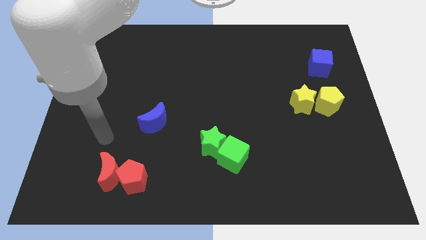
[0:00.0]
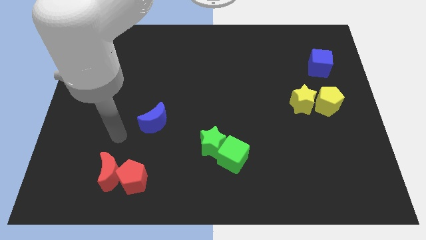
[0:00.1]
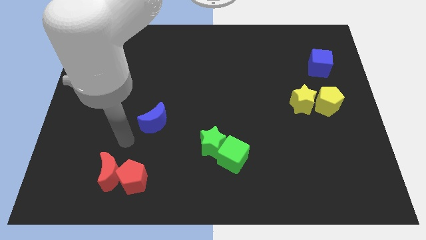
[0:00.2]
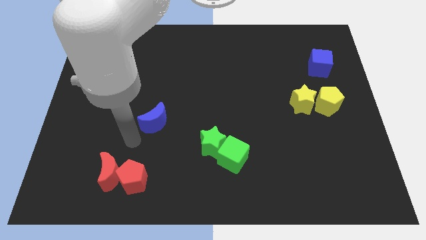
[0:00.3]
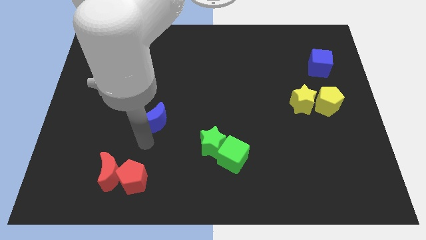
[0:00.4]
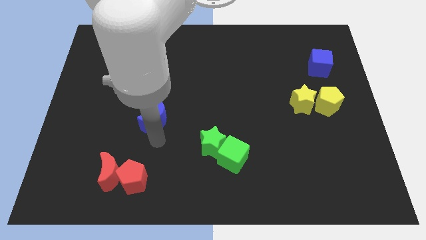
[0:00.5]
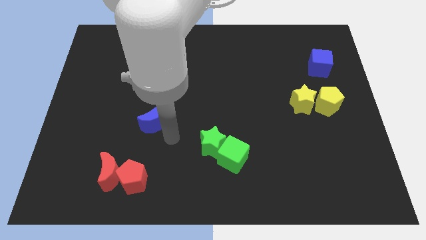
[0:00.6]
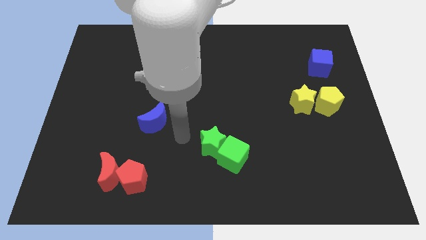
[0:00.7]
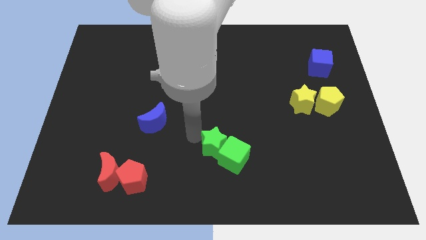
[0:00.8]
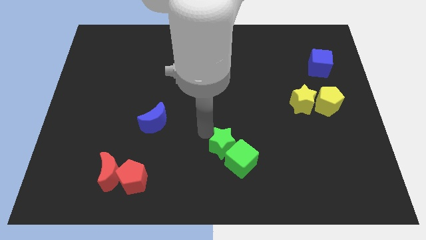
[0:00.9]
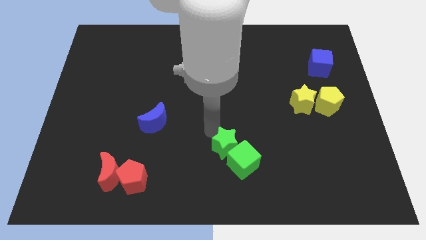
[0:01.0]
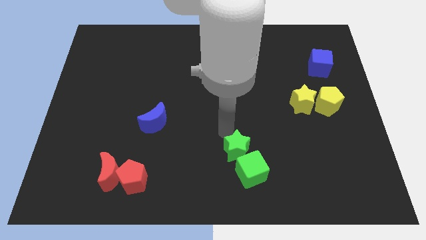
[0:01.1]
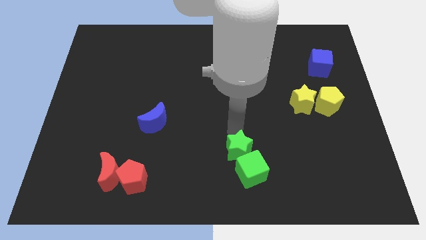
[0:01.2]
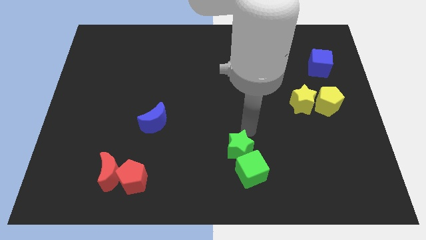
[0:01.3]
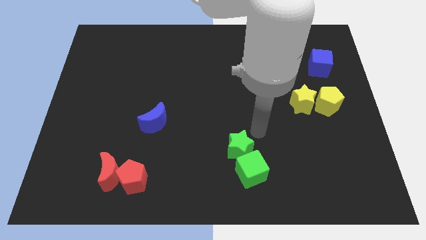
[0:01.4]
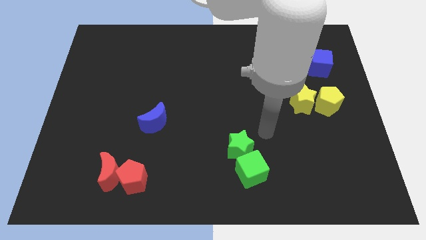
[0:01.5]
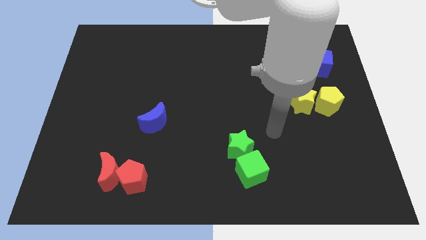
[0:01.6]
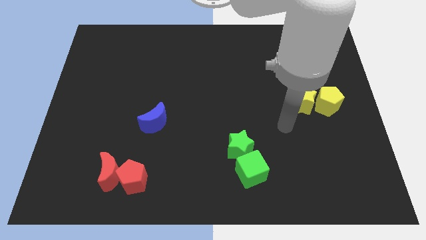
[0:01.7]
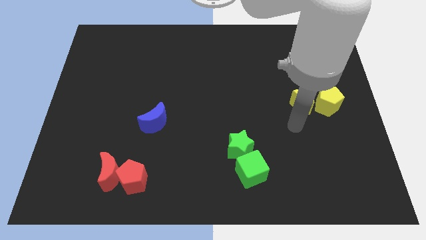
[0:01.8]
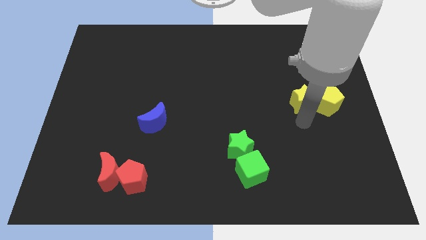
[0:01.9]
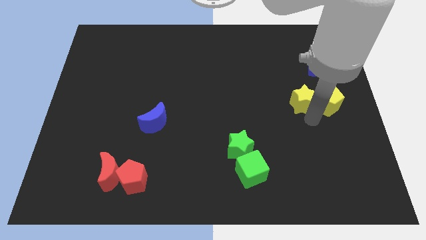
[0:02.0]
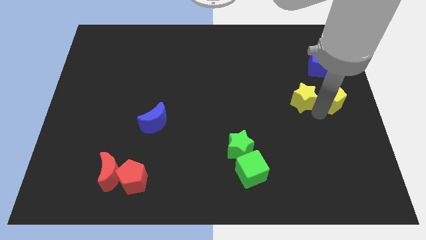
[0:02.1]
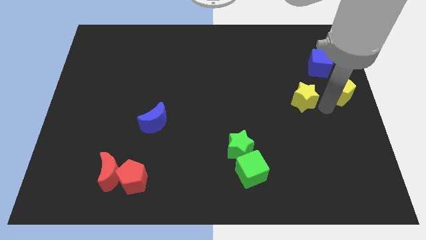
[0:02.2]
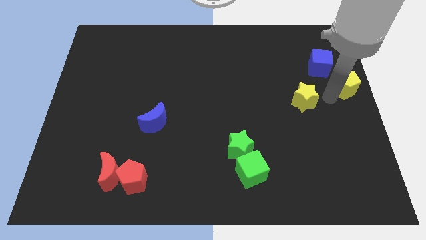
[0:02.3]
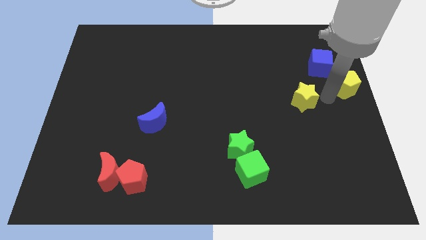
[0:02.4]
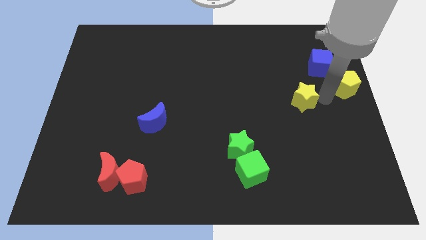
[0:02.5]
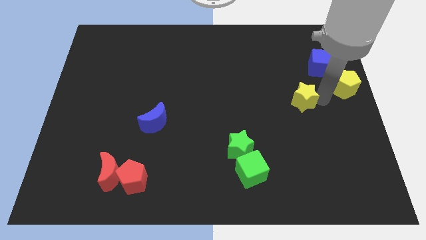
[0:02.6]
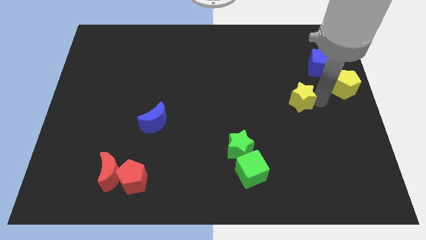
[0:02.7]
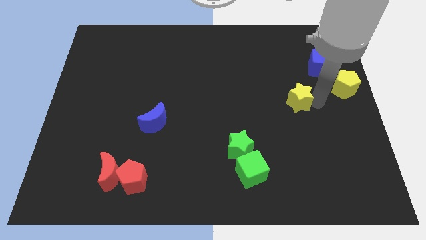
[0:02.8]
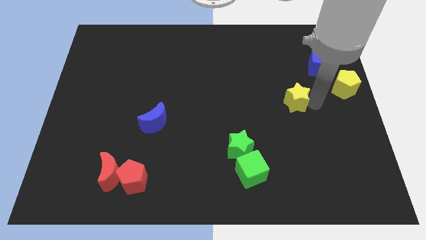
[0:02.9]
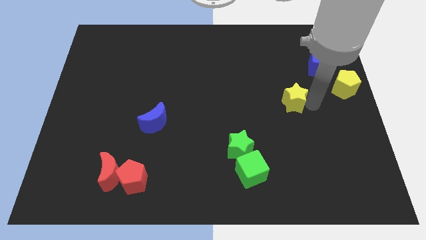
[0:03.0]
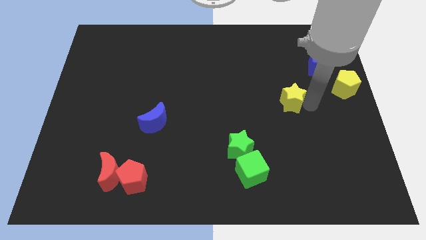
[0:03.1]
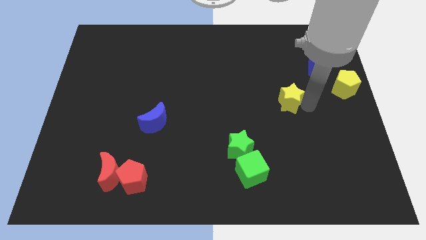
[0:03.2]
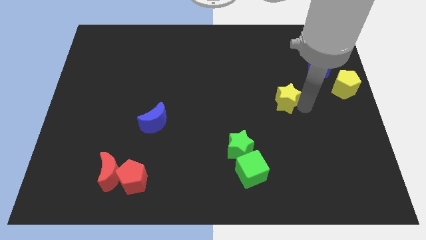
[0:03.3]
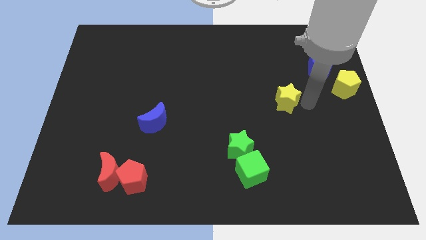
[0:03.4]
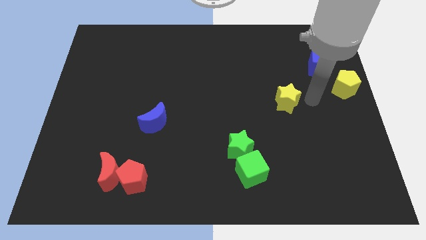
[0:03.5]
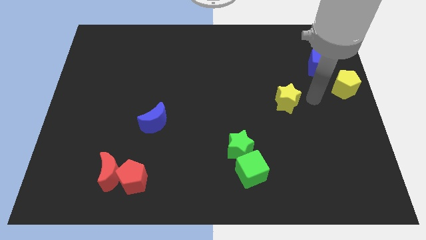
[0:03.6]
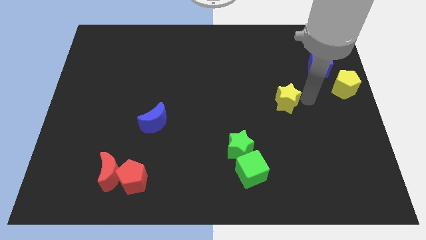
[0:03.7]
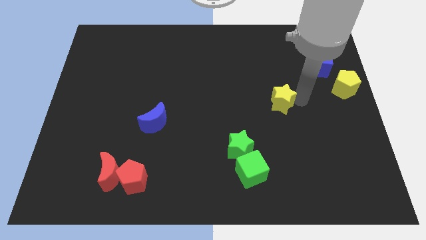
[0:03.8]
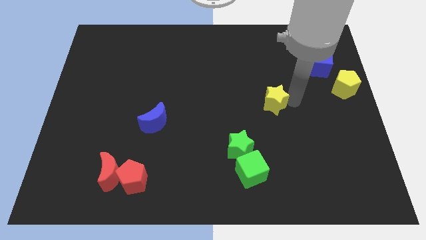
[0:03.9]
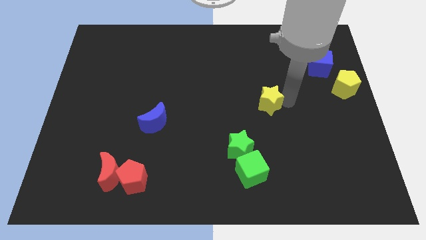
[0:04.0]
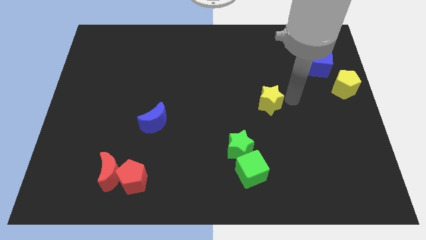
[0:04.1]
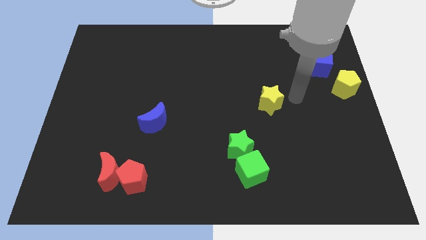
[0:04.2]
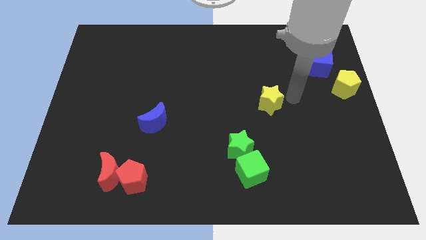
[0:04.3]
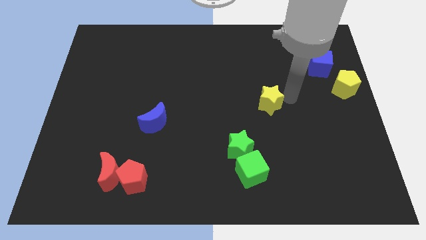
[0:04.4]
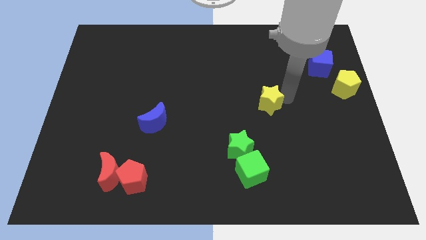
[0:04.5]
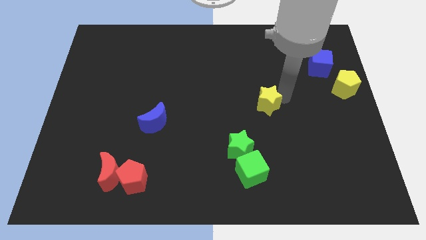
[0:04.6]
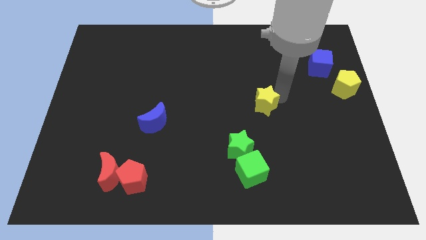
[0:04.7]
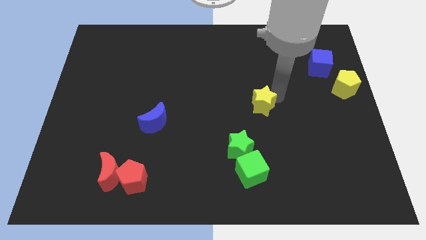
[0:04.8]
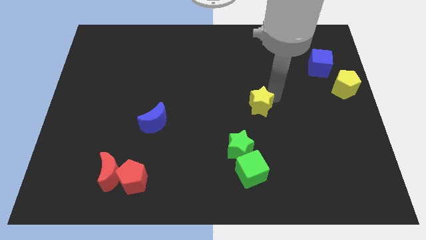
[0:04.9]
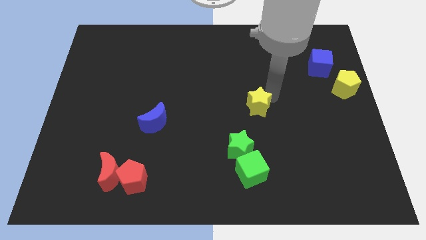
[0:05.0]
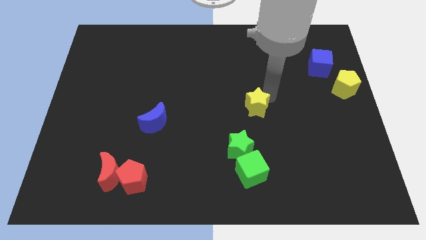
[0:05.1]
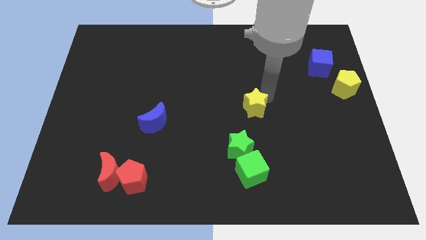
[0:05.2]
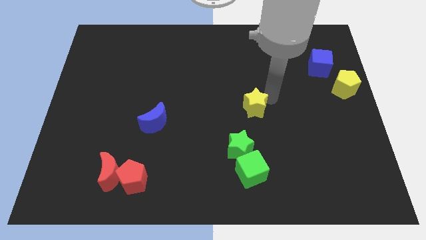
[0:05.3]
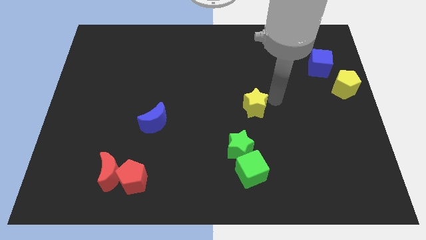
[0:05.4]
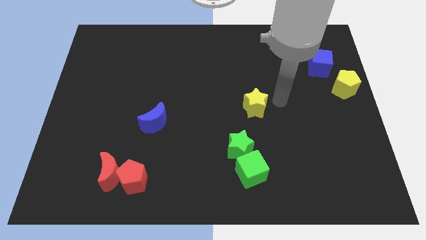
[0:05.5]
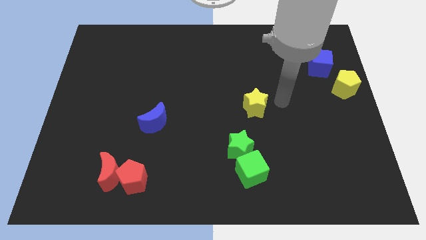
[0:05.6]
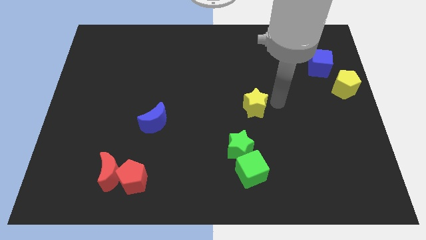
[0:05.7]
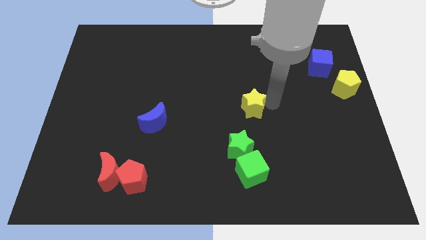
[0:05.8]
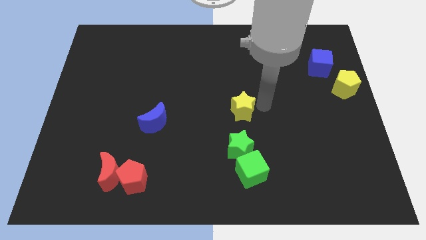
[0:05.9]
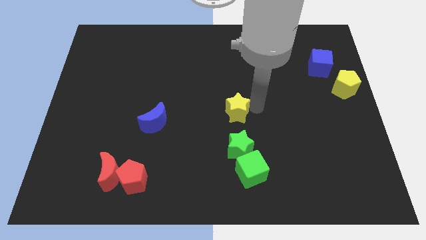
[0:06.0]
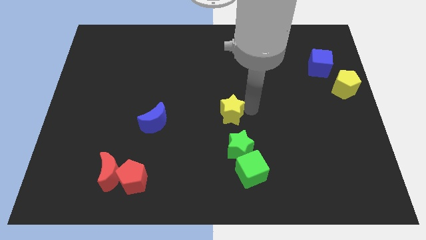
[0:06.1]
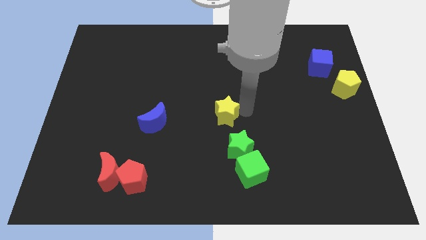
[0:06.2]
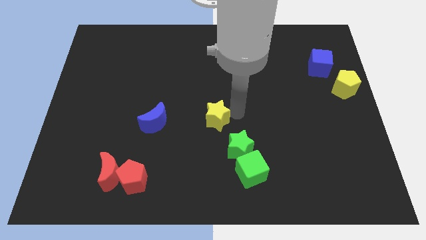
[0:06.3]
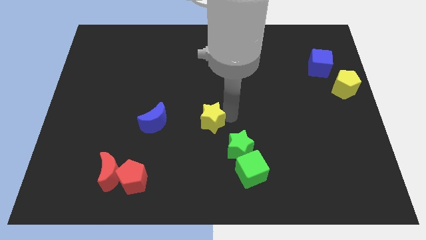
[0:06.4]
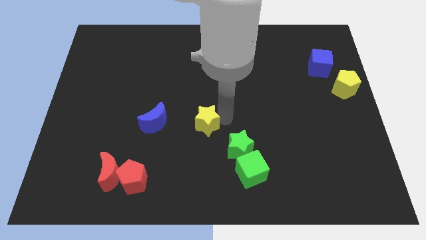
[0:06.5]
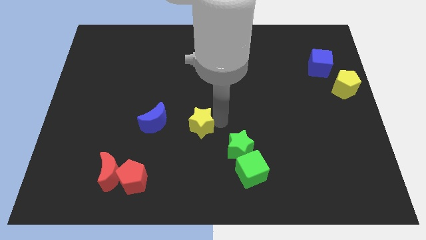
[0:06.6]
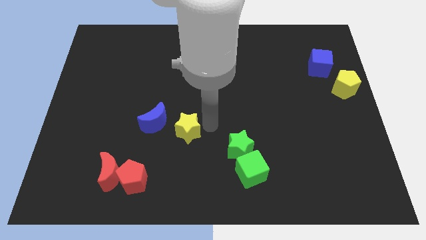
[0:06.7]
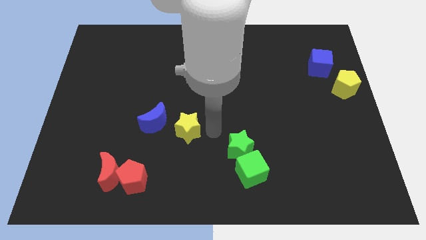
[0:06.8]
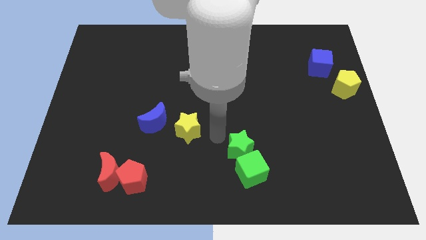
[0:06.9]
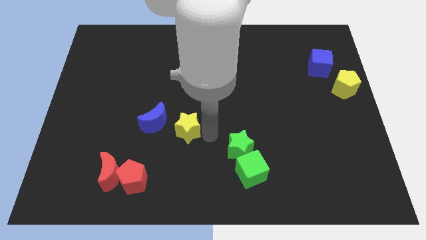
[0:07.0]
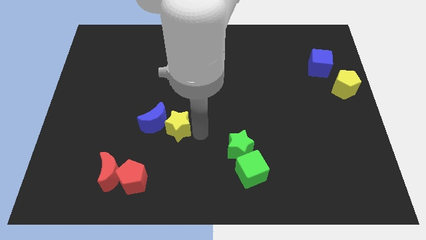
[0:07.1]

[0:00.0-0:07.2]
slide the yellow star close to the blue moon
